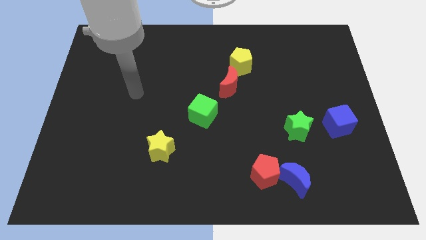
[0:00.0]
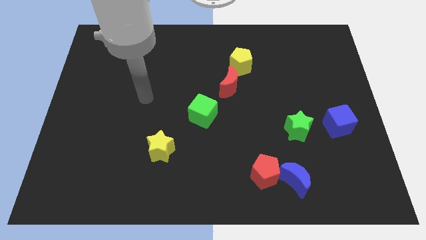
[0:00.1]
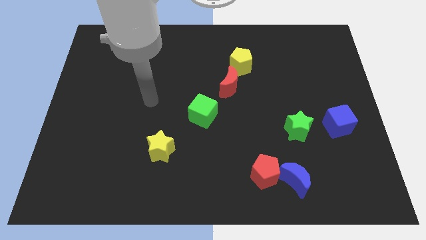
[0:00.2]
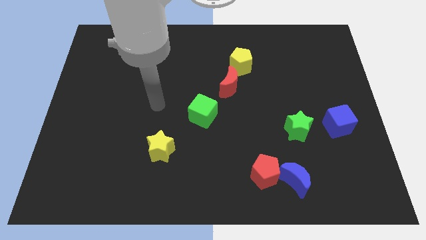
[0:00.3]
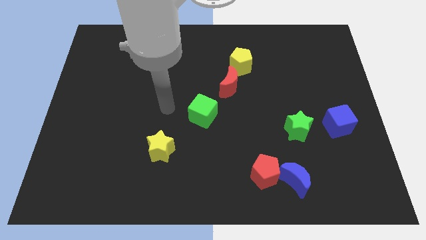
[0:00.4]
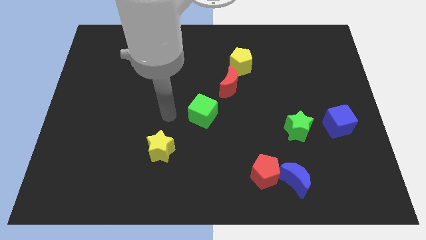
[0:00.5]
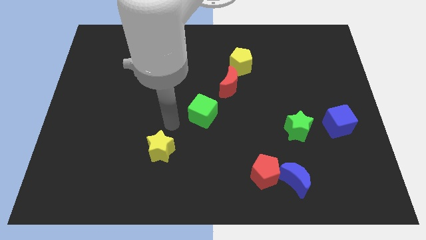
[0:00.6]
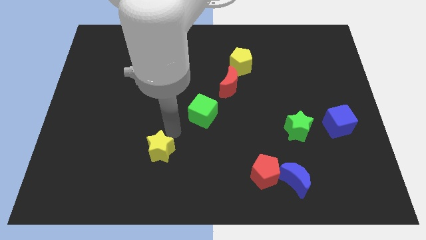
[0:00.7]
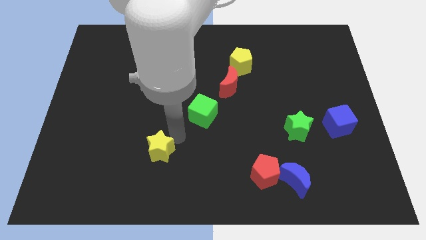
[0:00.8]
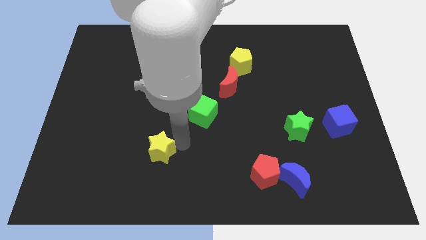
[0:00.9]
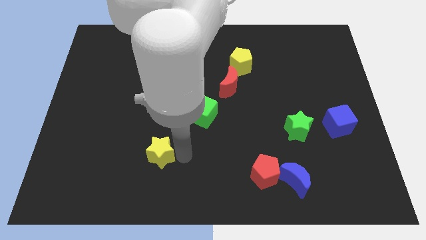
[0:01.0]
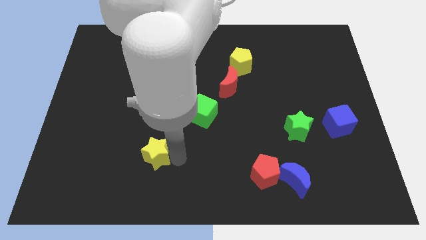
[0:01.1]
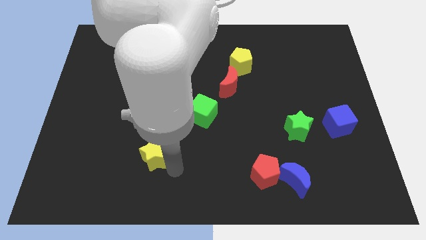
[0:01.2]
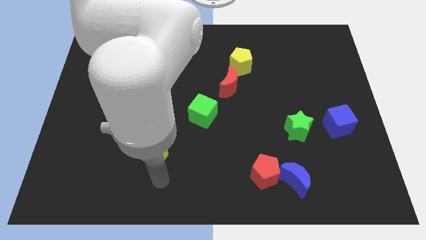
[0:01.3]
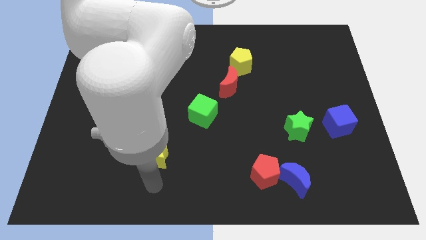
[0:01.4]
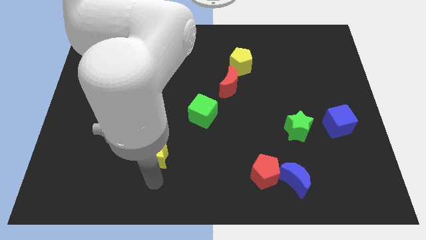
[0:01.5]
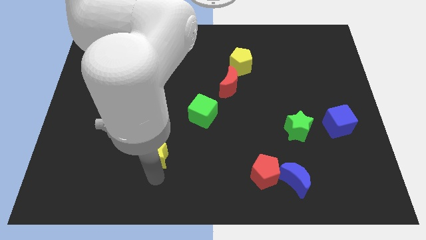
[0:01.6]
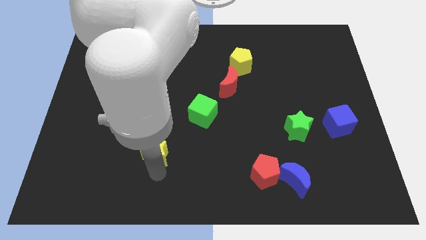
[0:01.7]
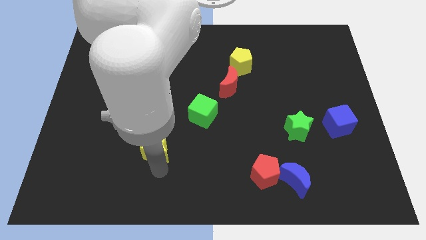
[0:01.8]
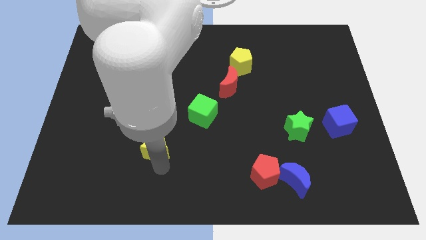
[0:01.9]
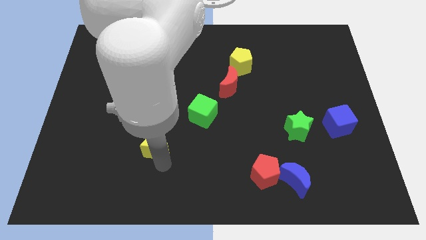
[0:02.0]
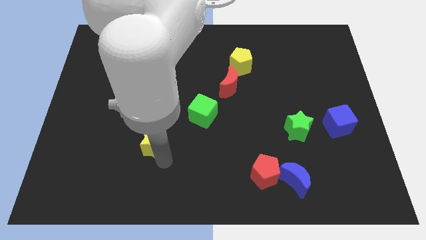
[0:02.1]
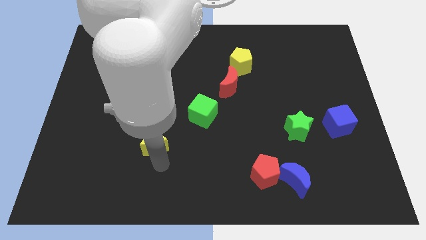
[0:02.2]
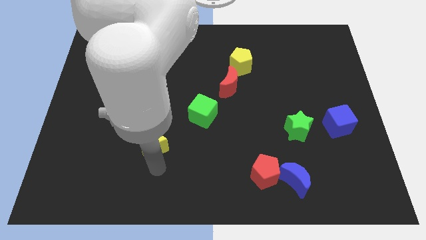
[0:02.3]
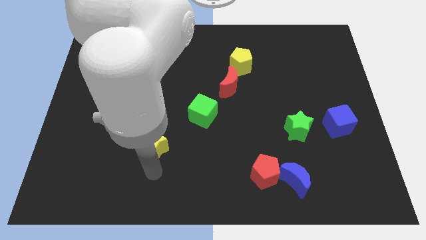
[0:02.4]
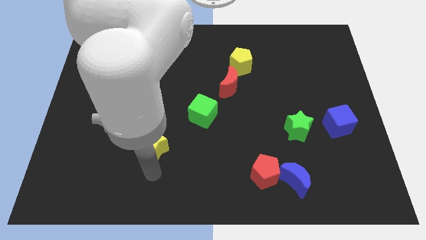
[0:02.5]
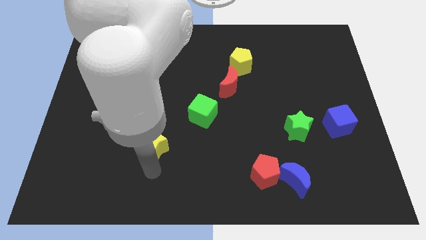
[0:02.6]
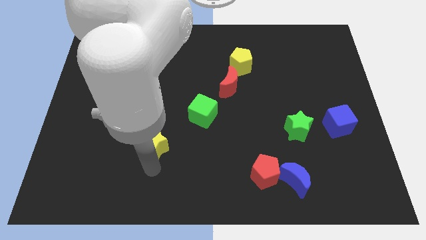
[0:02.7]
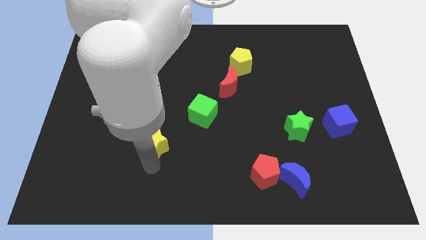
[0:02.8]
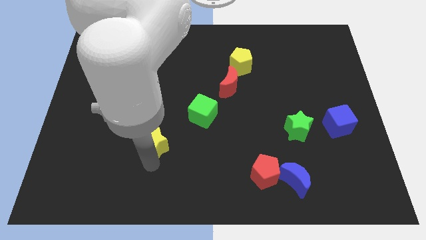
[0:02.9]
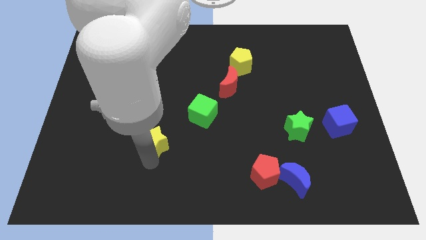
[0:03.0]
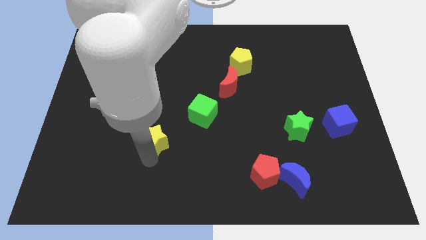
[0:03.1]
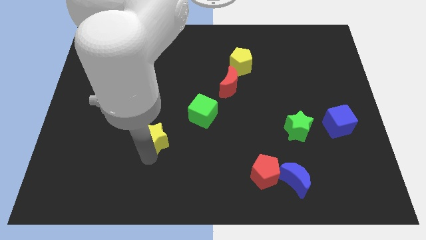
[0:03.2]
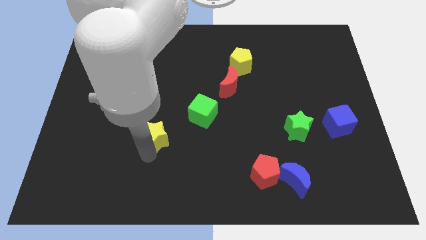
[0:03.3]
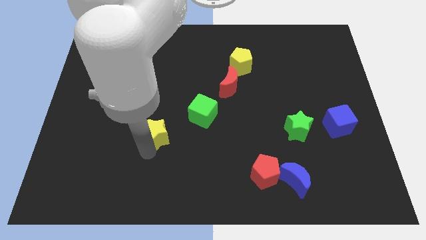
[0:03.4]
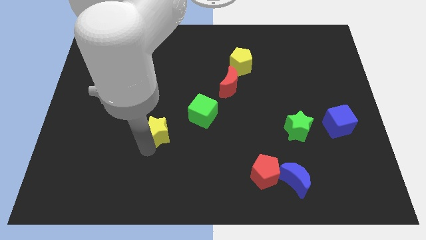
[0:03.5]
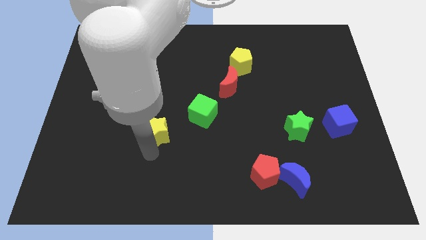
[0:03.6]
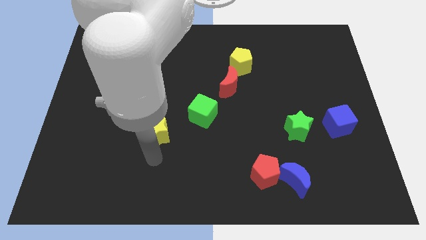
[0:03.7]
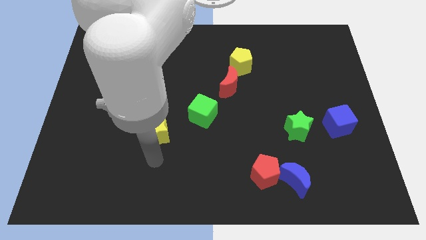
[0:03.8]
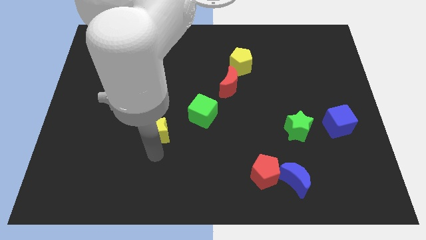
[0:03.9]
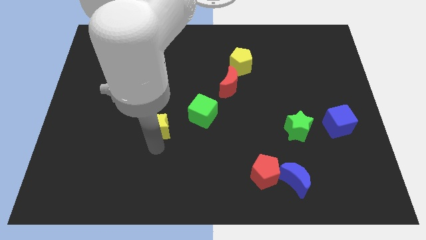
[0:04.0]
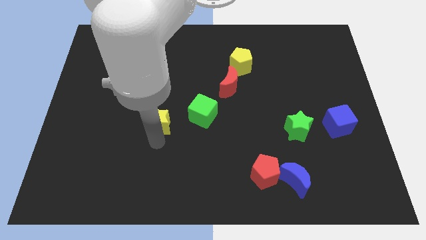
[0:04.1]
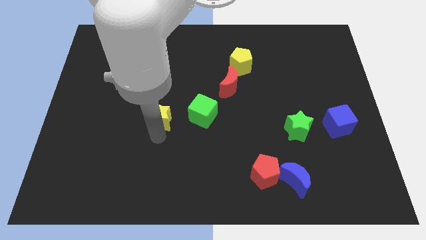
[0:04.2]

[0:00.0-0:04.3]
push the yellow star upwards a little

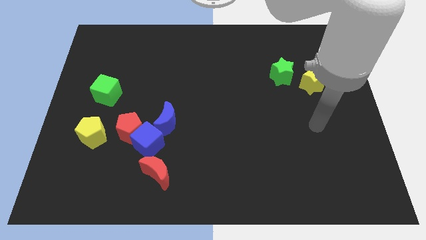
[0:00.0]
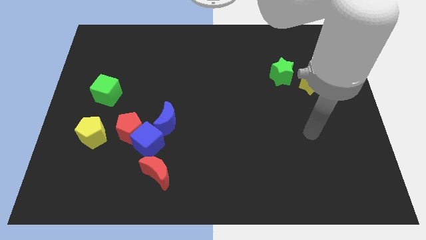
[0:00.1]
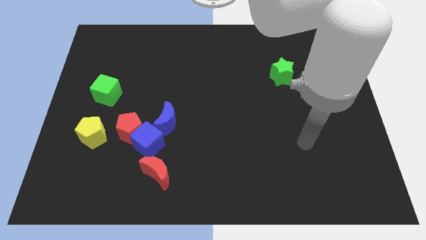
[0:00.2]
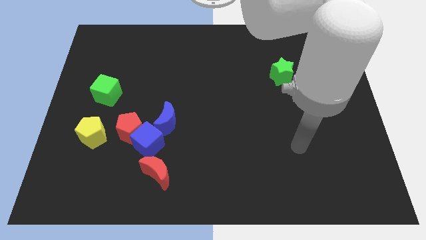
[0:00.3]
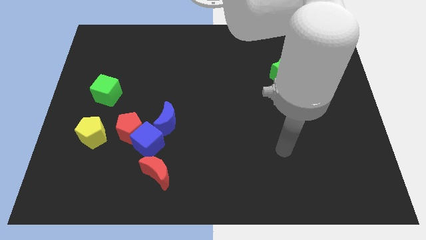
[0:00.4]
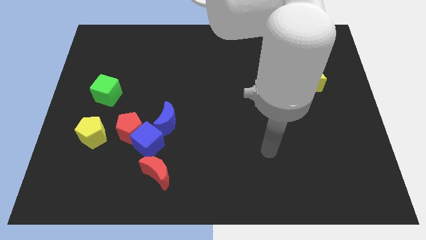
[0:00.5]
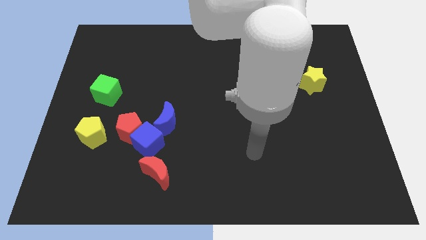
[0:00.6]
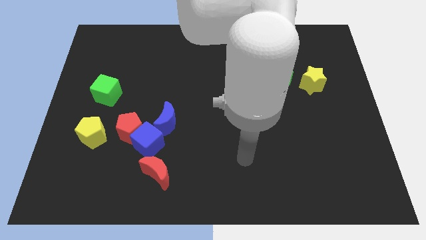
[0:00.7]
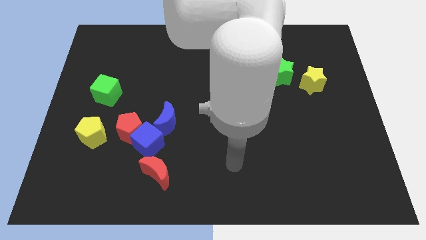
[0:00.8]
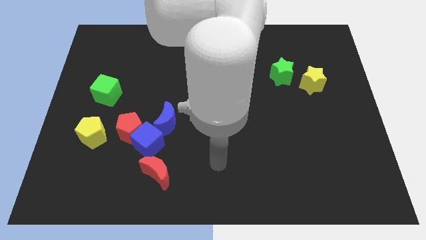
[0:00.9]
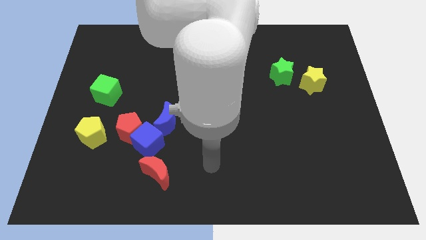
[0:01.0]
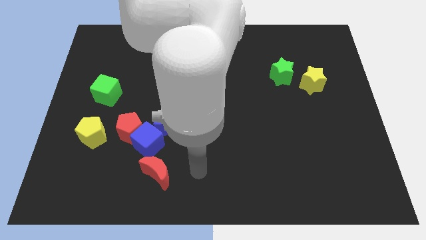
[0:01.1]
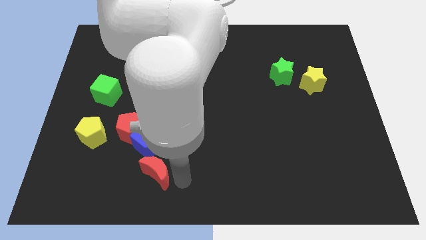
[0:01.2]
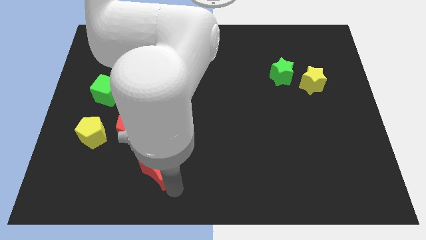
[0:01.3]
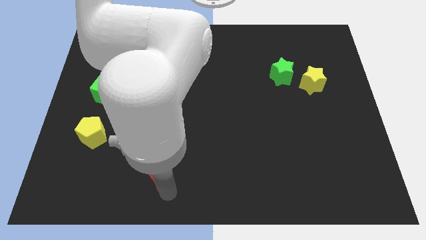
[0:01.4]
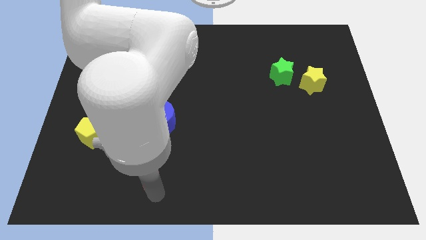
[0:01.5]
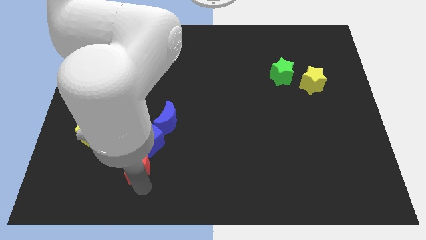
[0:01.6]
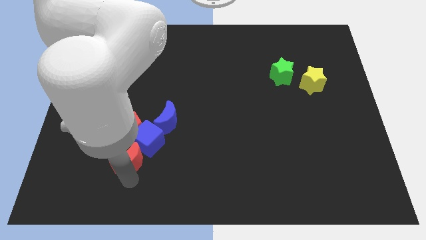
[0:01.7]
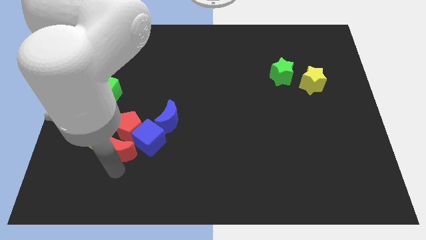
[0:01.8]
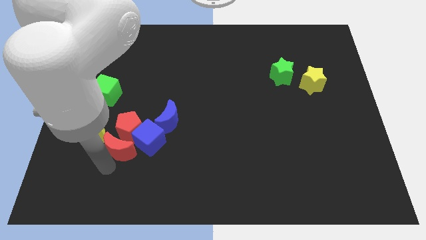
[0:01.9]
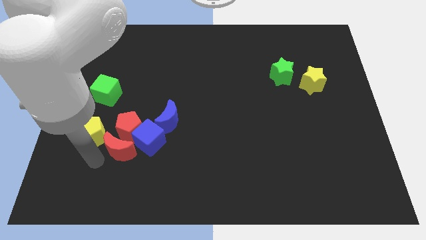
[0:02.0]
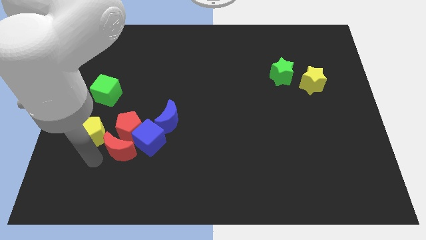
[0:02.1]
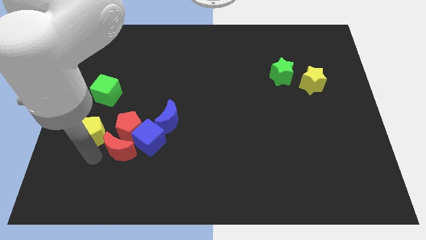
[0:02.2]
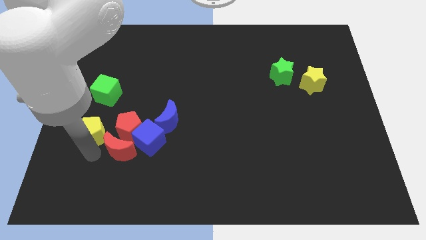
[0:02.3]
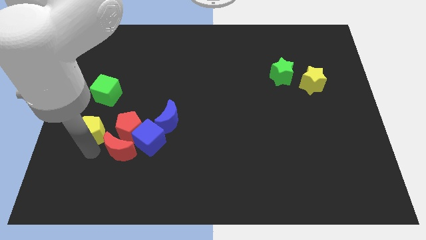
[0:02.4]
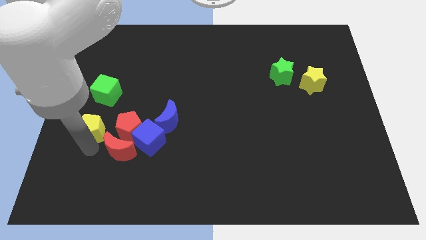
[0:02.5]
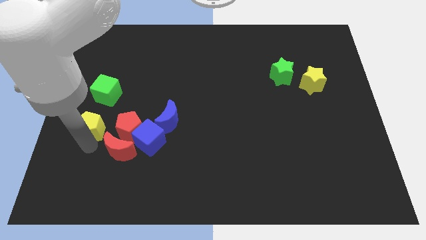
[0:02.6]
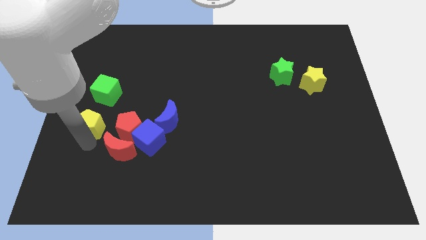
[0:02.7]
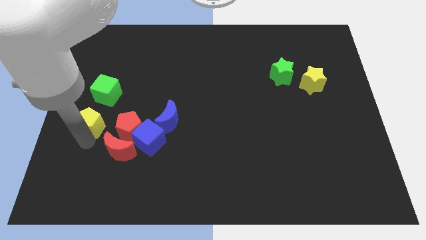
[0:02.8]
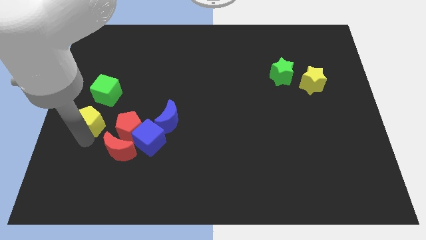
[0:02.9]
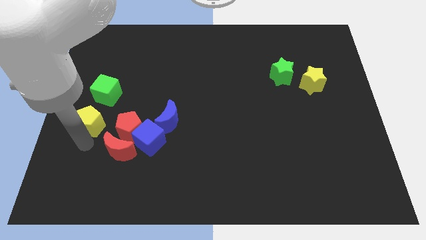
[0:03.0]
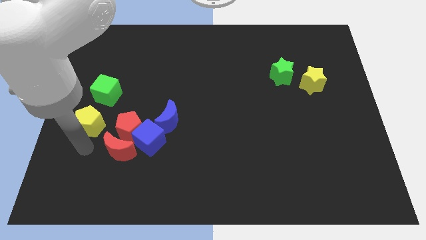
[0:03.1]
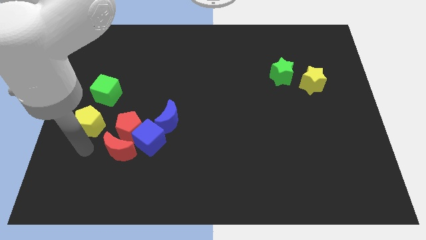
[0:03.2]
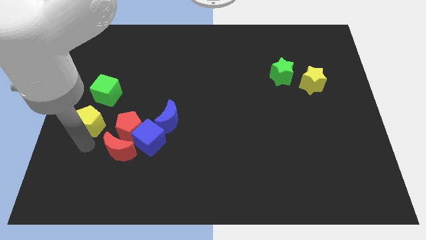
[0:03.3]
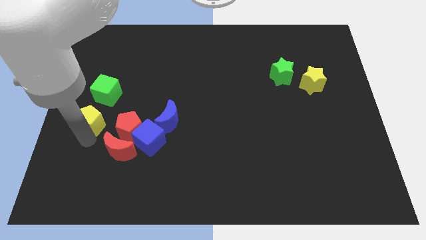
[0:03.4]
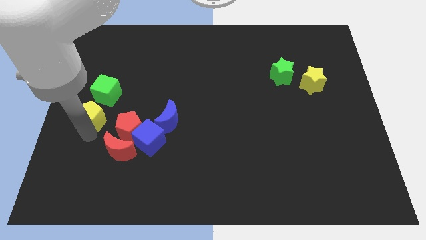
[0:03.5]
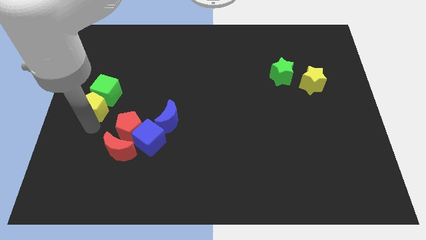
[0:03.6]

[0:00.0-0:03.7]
slightly move the yellow pentagon upwards

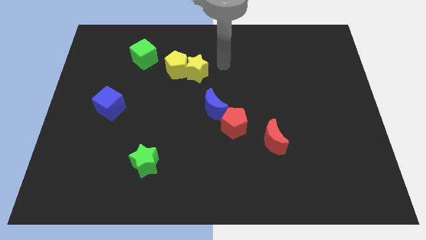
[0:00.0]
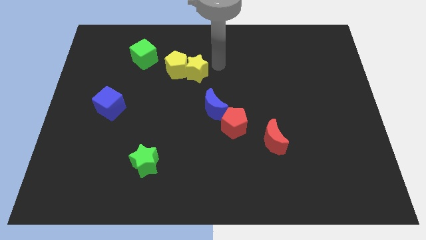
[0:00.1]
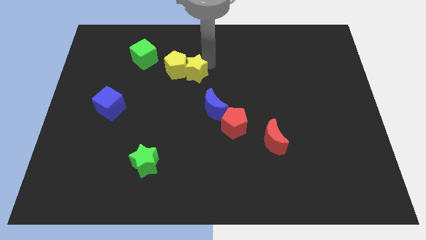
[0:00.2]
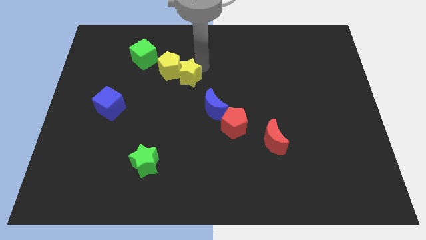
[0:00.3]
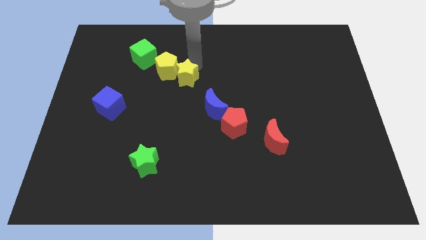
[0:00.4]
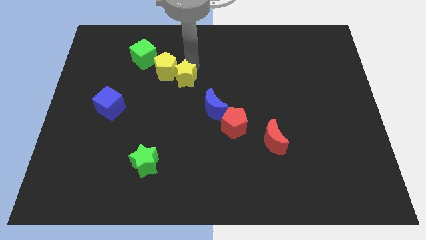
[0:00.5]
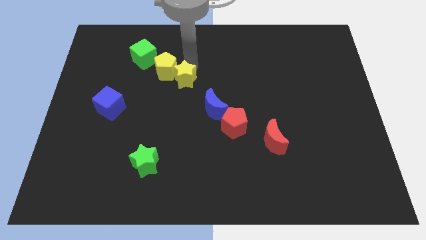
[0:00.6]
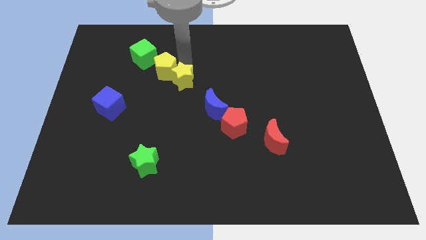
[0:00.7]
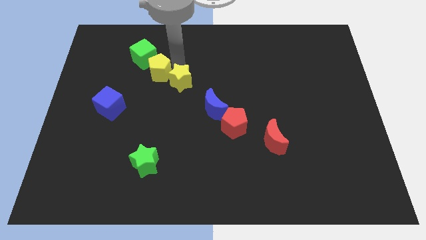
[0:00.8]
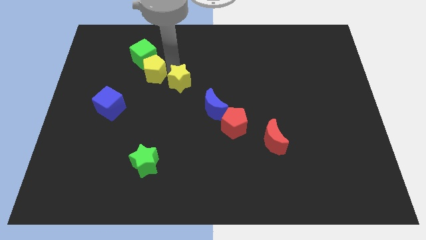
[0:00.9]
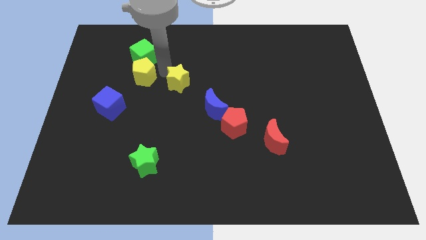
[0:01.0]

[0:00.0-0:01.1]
push the yellow pentagon to the left a little
